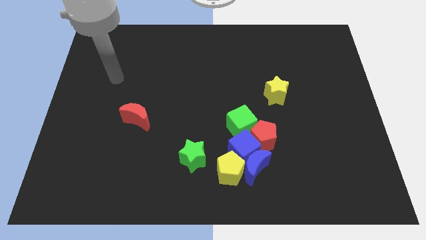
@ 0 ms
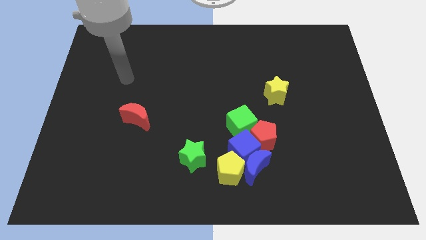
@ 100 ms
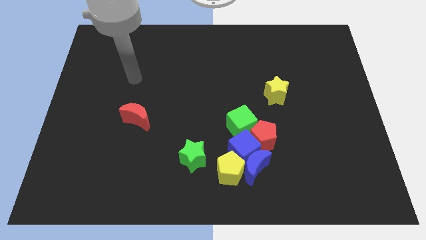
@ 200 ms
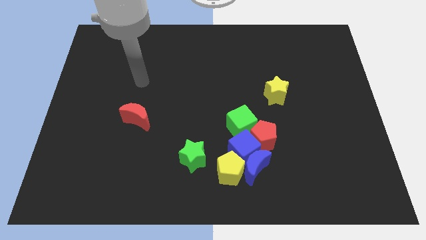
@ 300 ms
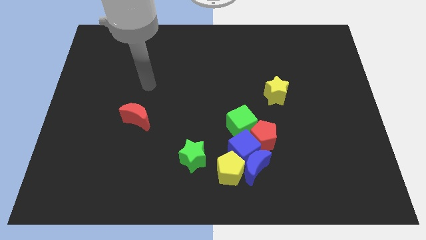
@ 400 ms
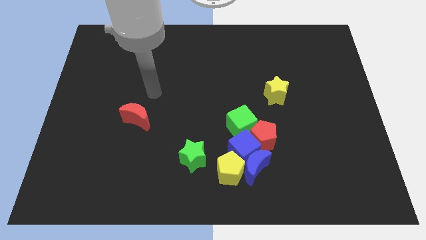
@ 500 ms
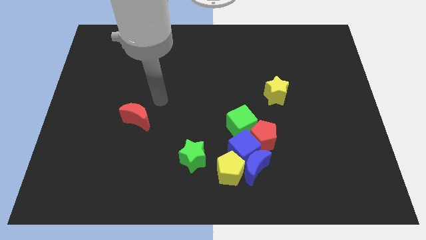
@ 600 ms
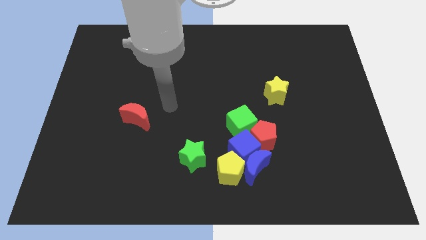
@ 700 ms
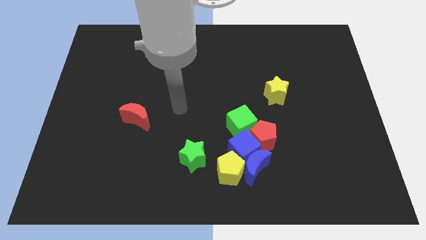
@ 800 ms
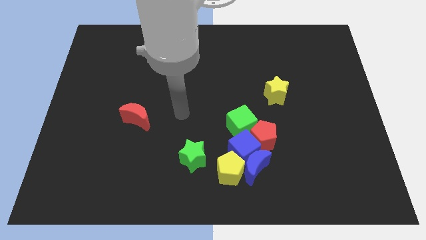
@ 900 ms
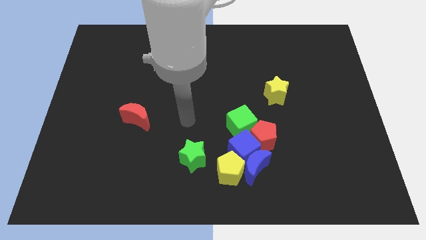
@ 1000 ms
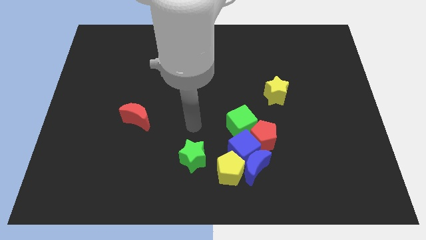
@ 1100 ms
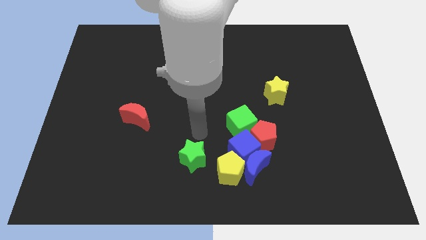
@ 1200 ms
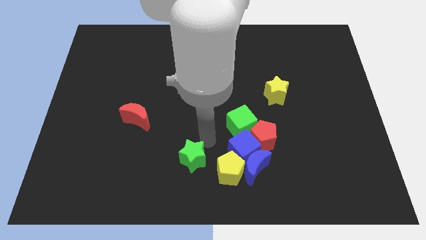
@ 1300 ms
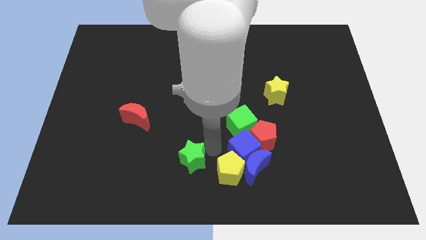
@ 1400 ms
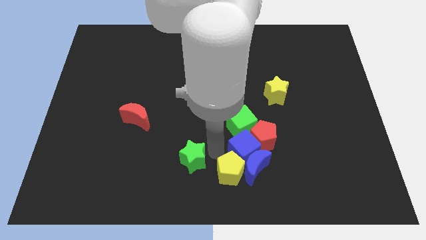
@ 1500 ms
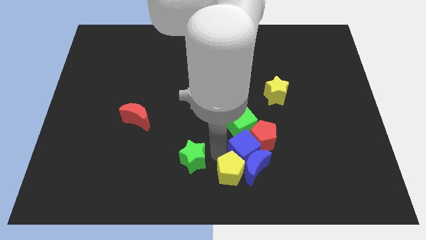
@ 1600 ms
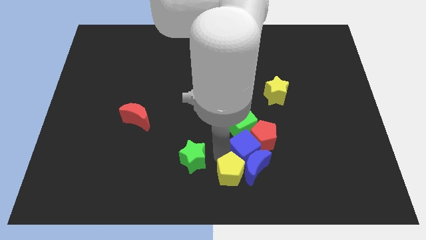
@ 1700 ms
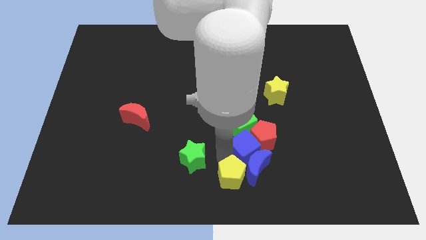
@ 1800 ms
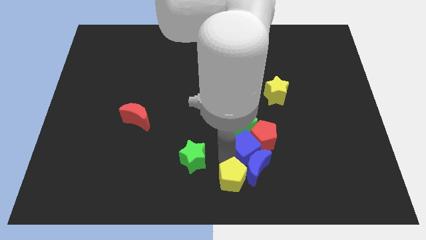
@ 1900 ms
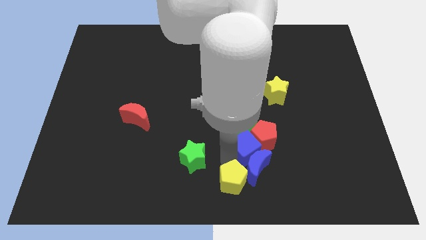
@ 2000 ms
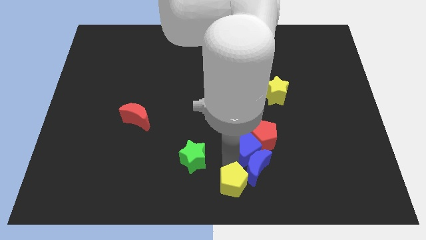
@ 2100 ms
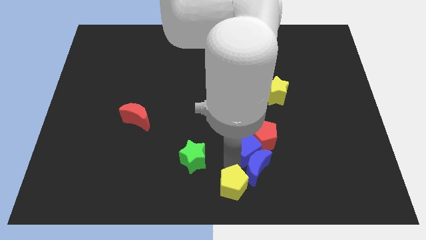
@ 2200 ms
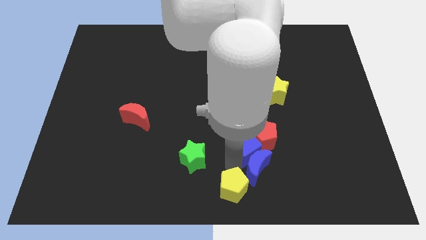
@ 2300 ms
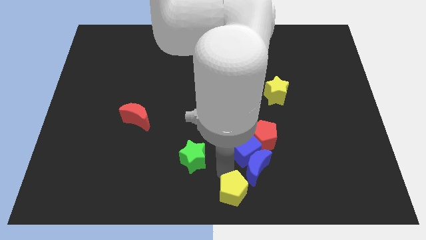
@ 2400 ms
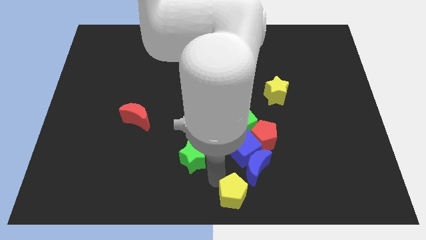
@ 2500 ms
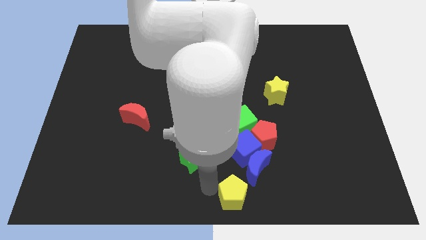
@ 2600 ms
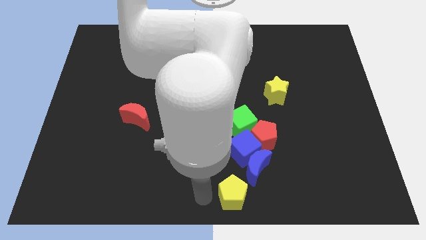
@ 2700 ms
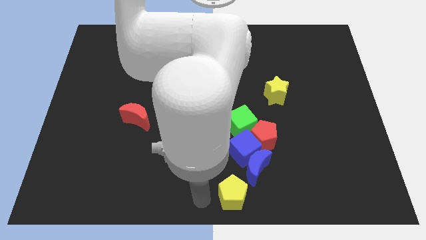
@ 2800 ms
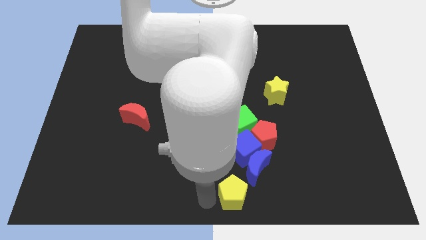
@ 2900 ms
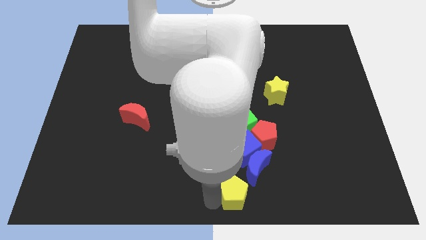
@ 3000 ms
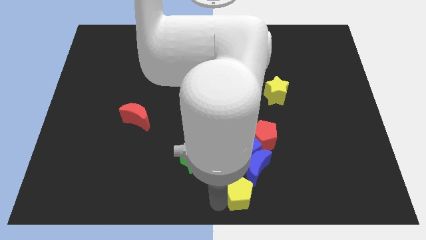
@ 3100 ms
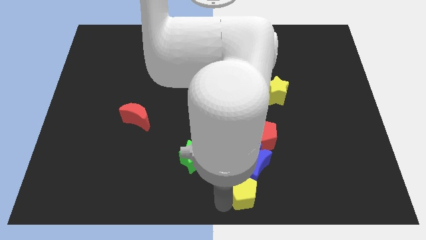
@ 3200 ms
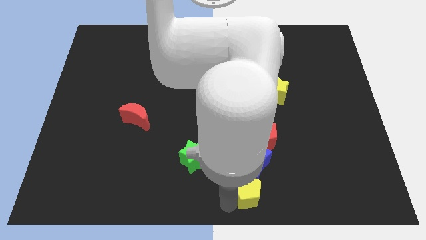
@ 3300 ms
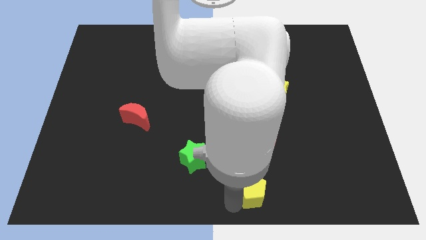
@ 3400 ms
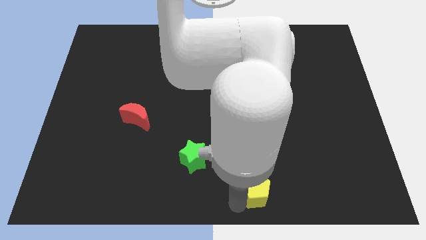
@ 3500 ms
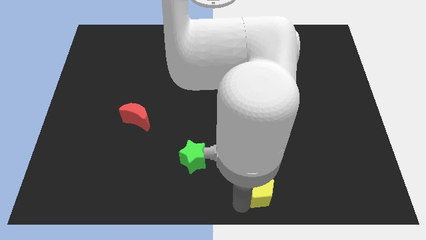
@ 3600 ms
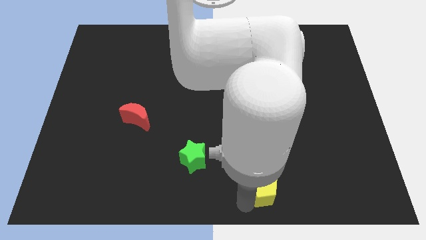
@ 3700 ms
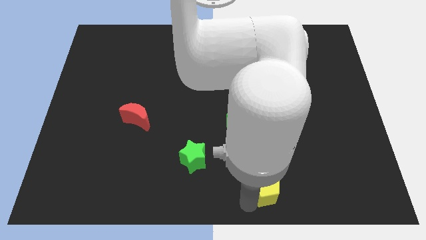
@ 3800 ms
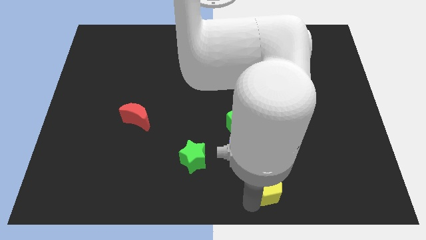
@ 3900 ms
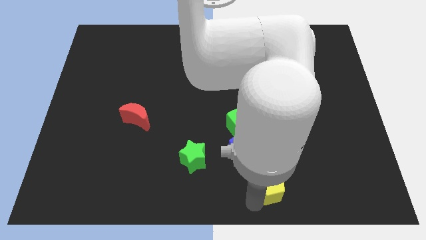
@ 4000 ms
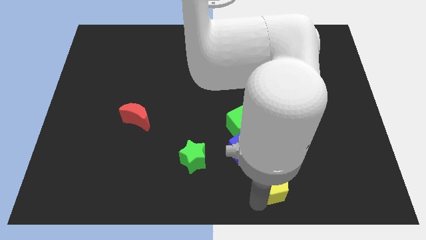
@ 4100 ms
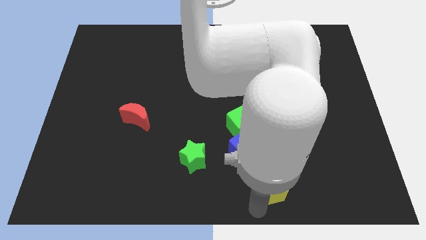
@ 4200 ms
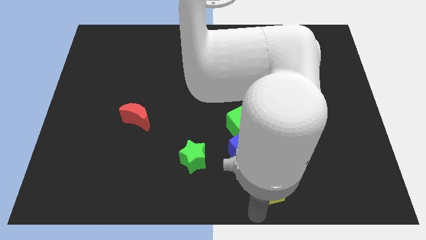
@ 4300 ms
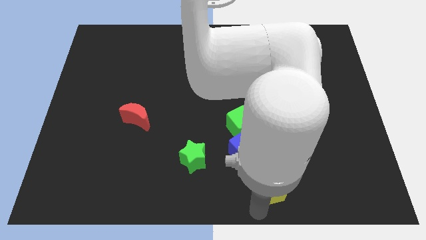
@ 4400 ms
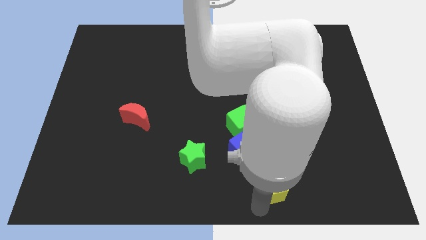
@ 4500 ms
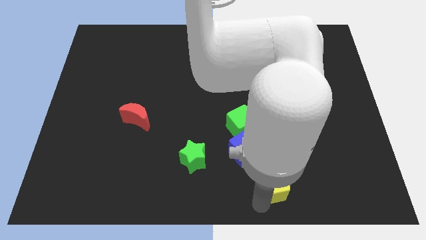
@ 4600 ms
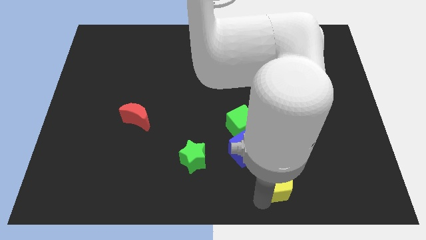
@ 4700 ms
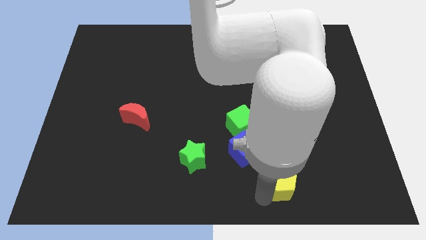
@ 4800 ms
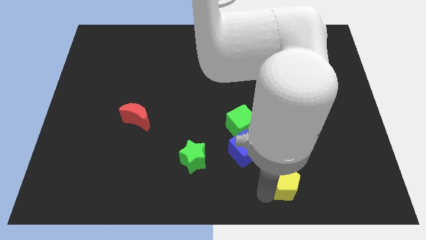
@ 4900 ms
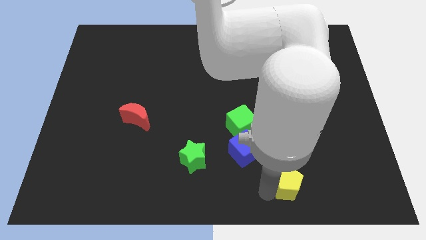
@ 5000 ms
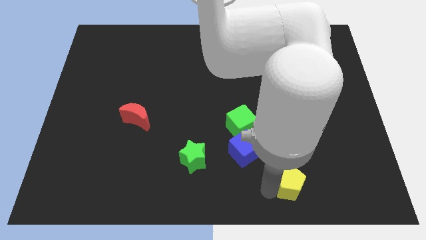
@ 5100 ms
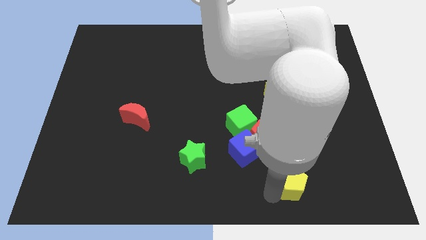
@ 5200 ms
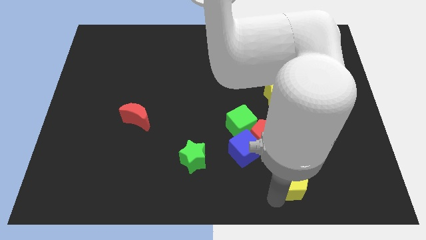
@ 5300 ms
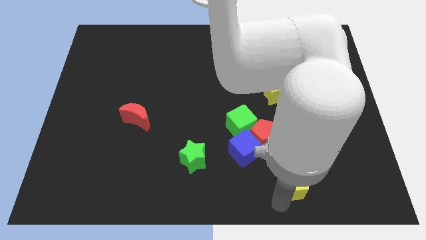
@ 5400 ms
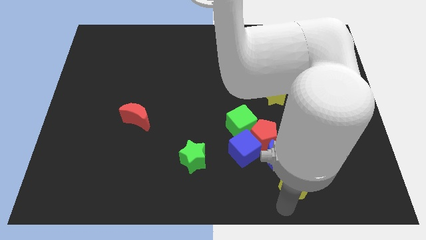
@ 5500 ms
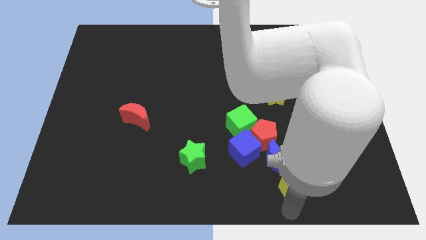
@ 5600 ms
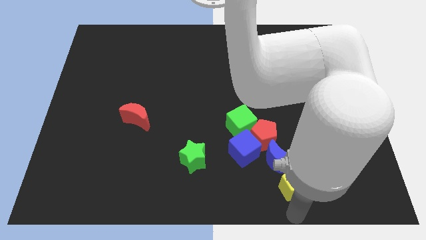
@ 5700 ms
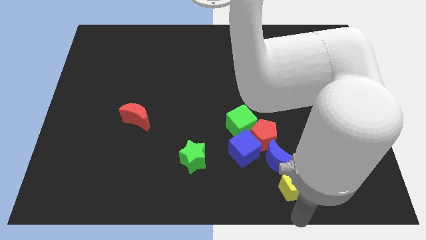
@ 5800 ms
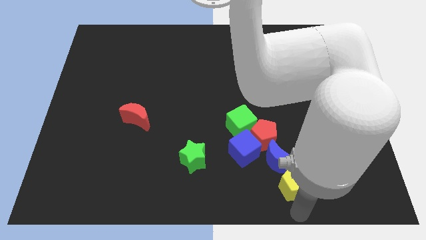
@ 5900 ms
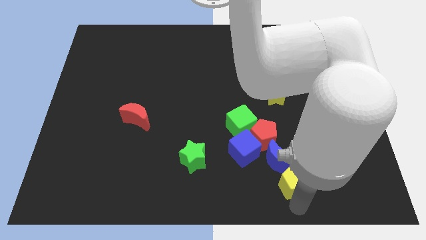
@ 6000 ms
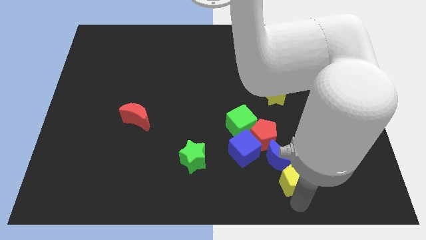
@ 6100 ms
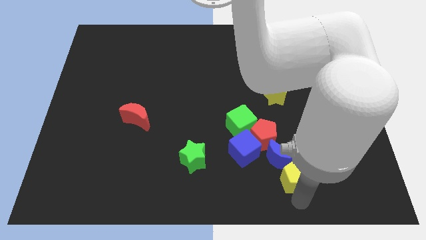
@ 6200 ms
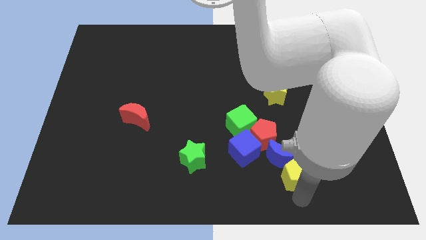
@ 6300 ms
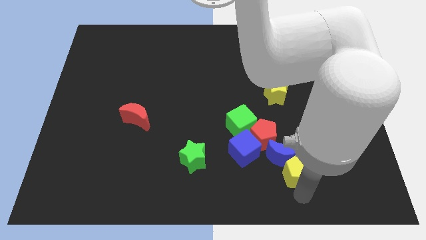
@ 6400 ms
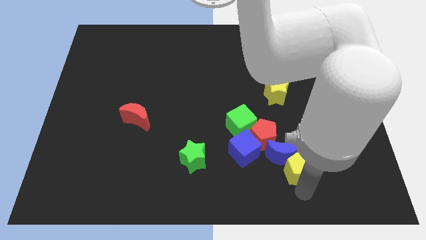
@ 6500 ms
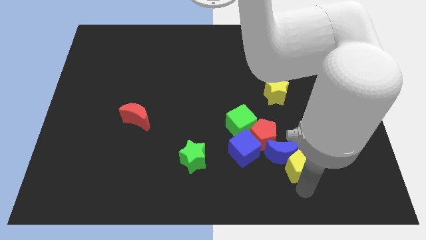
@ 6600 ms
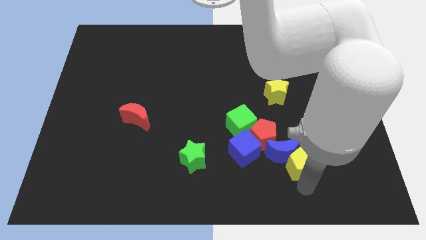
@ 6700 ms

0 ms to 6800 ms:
slide the yellow pentagon upwards and then to the right somewhat

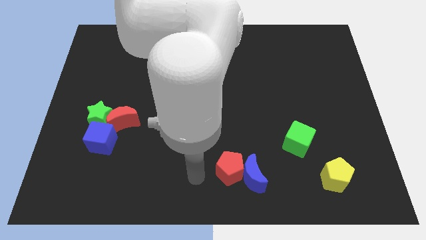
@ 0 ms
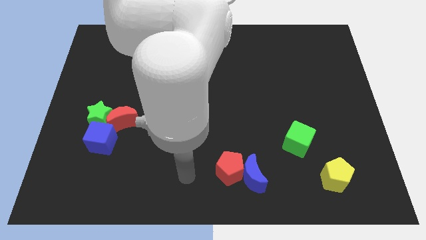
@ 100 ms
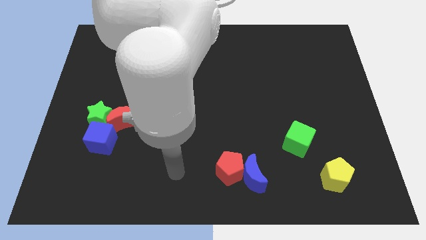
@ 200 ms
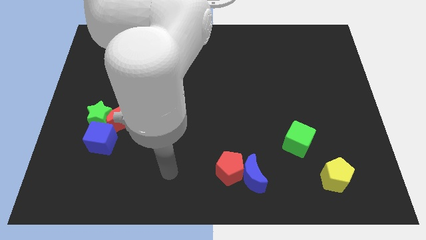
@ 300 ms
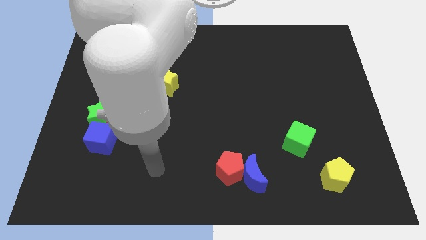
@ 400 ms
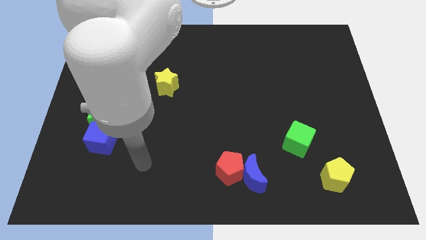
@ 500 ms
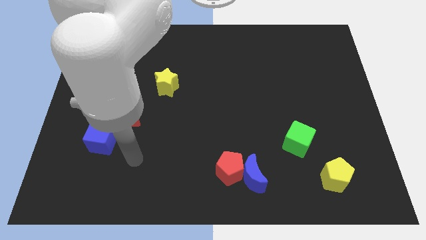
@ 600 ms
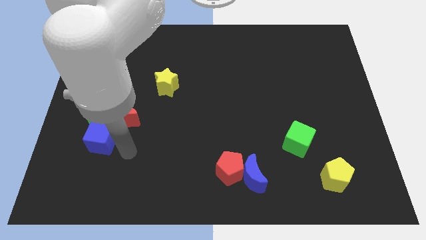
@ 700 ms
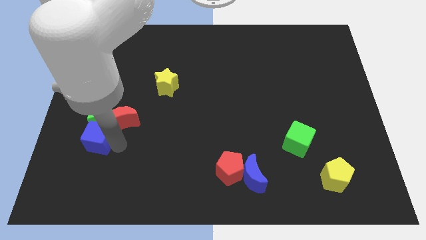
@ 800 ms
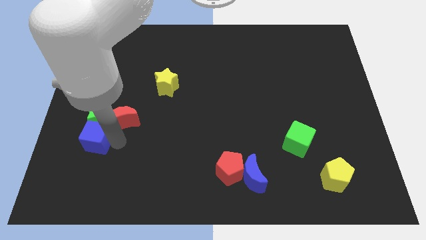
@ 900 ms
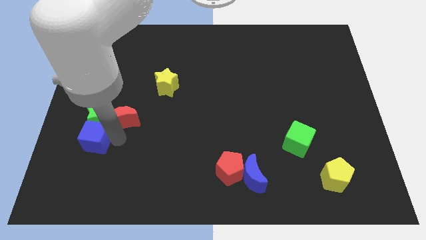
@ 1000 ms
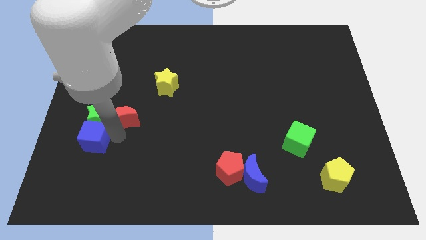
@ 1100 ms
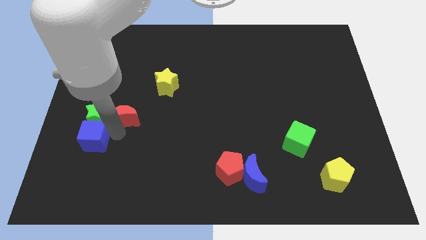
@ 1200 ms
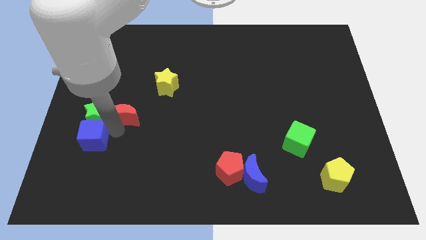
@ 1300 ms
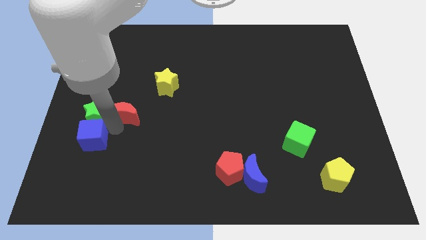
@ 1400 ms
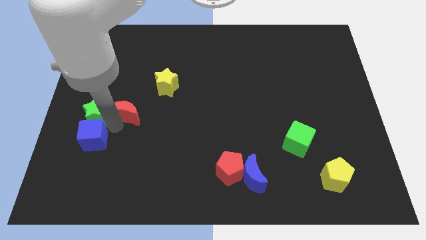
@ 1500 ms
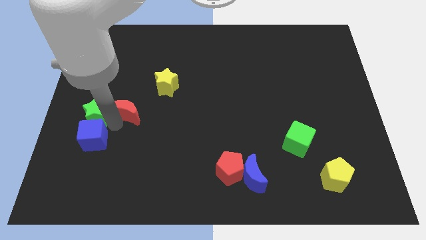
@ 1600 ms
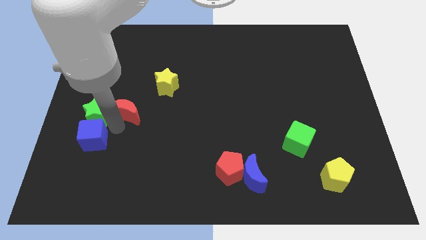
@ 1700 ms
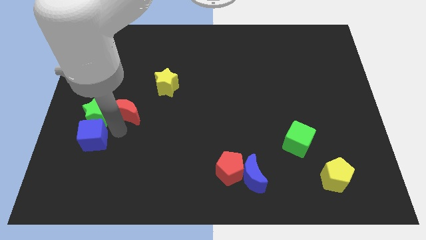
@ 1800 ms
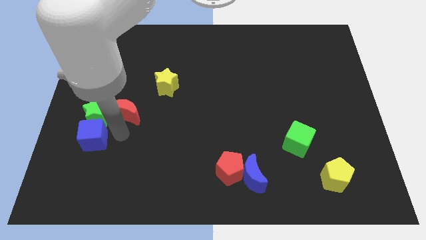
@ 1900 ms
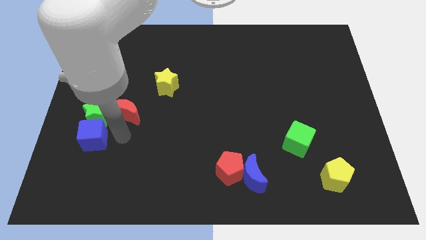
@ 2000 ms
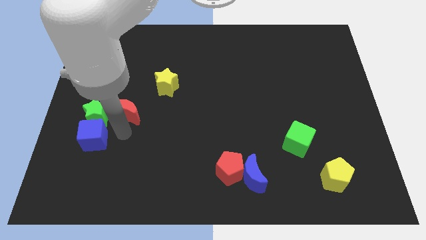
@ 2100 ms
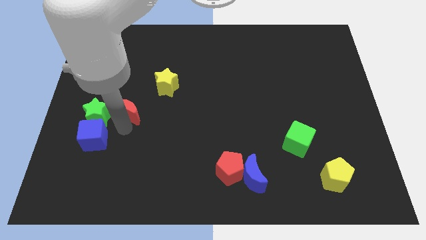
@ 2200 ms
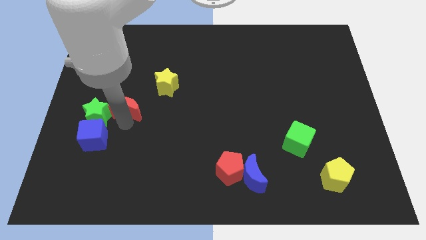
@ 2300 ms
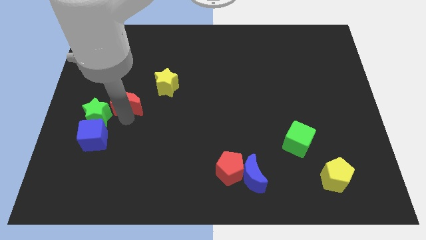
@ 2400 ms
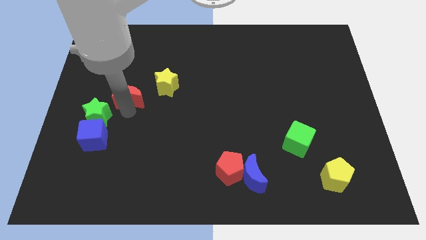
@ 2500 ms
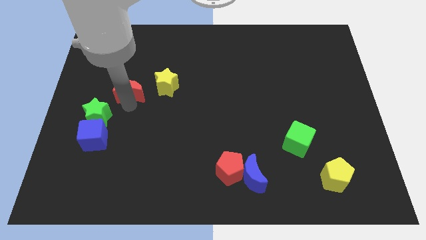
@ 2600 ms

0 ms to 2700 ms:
slide the red moon upwards a bit
